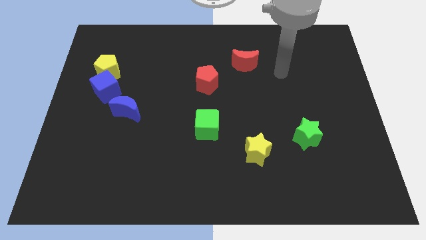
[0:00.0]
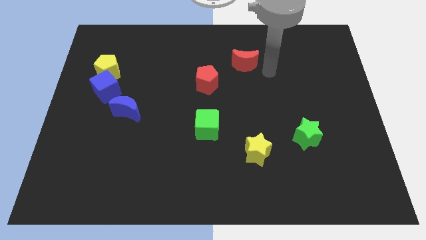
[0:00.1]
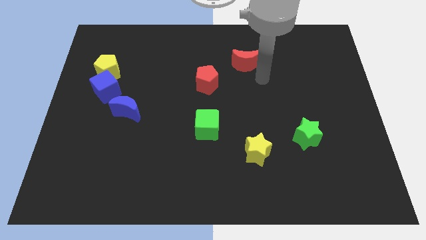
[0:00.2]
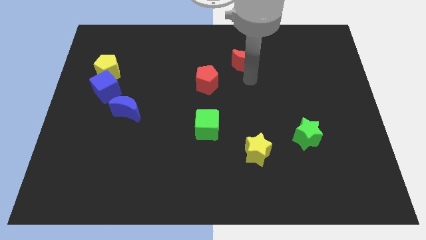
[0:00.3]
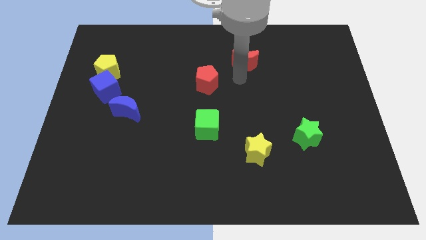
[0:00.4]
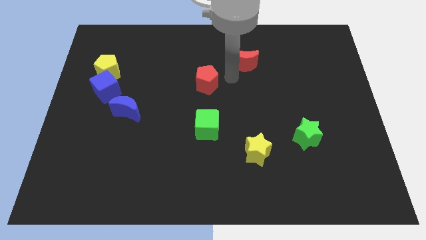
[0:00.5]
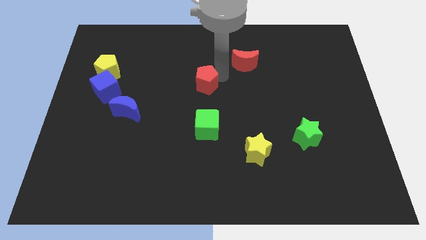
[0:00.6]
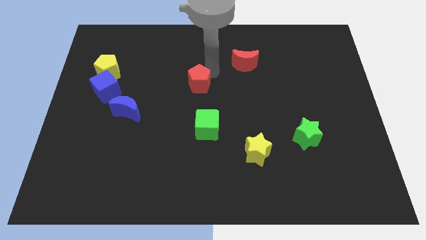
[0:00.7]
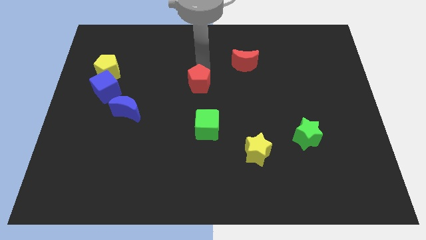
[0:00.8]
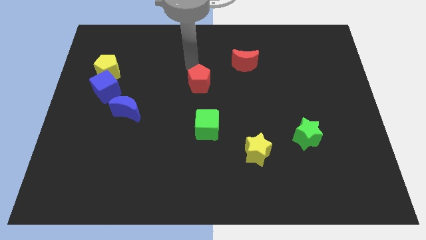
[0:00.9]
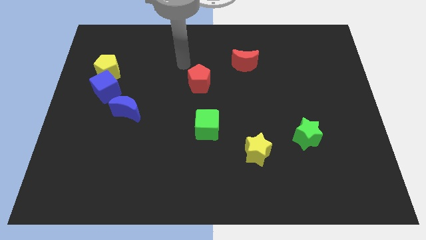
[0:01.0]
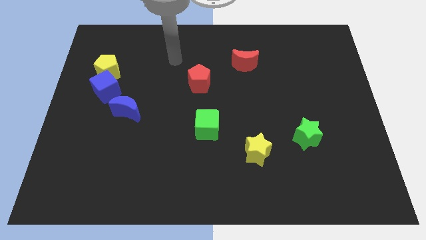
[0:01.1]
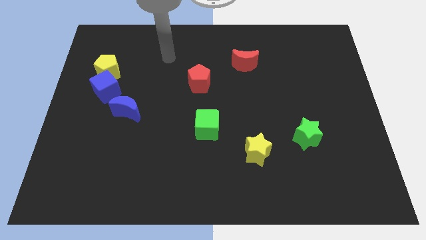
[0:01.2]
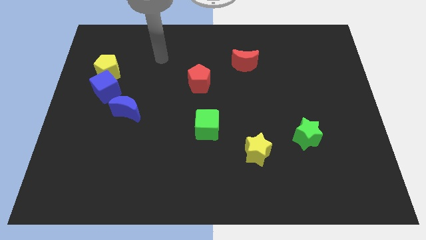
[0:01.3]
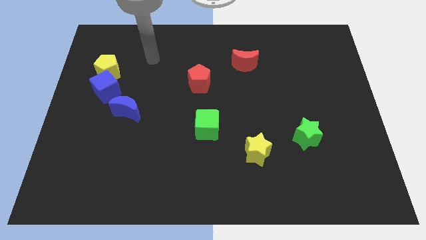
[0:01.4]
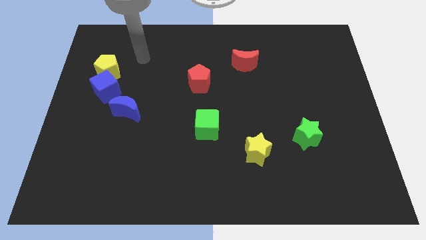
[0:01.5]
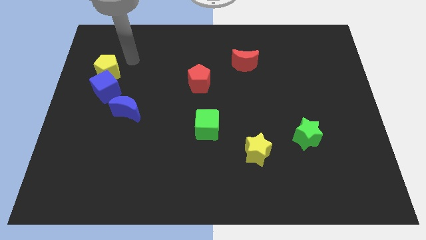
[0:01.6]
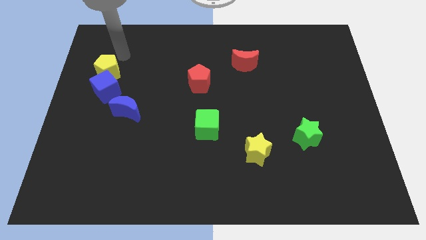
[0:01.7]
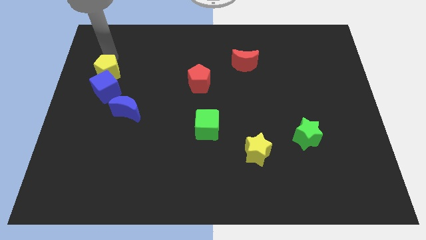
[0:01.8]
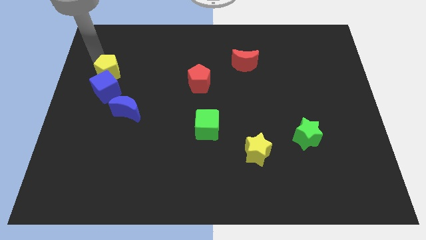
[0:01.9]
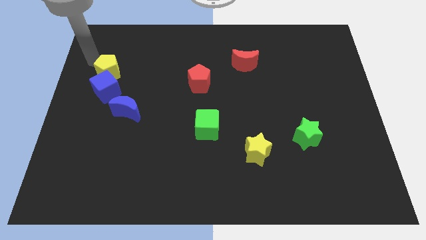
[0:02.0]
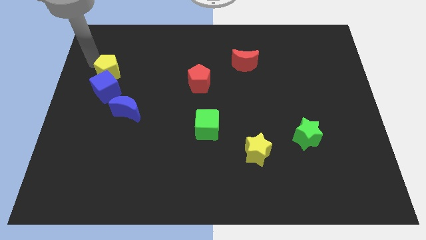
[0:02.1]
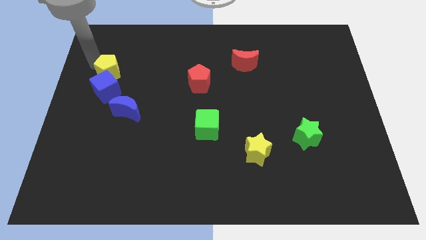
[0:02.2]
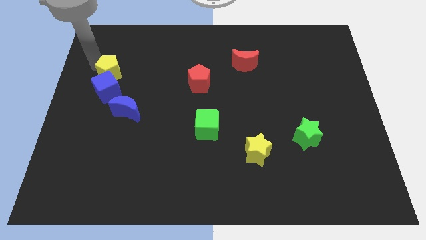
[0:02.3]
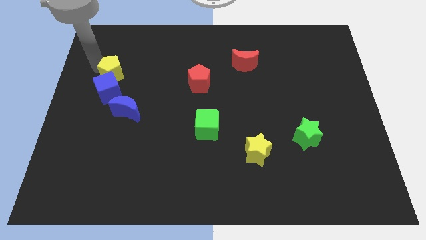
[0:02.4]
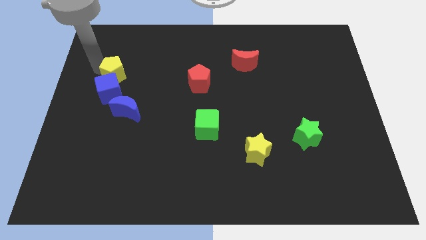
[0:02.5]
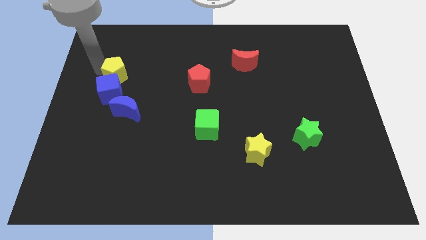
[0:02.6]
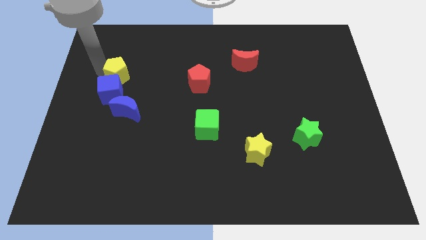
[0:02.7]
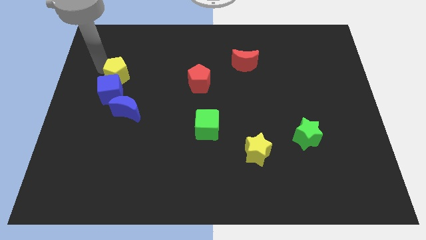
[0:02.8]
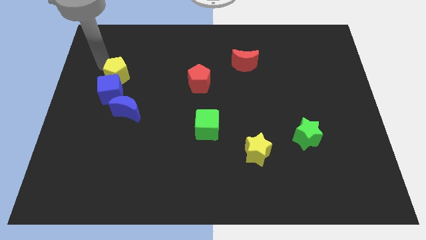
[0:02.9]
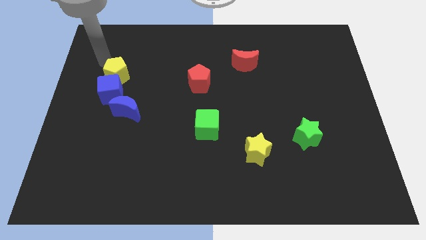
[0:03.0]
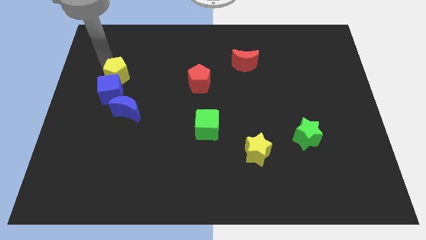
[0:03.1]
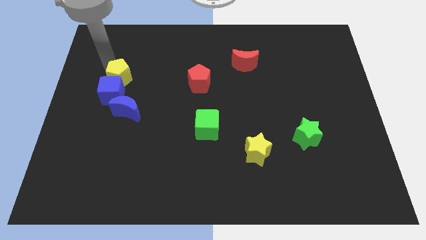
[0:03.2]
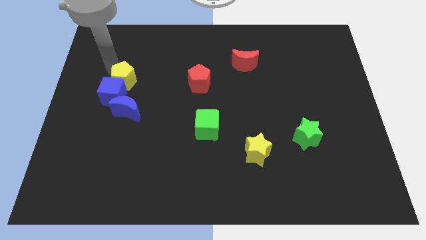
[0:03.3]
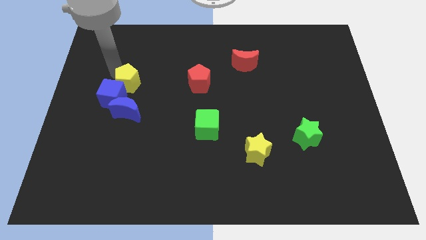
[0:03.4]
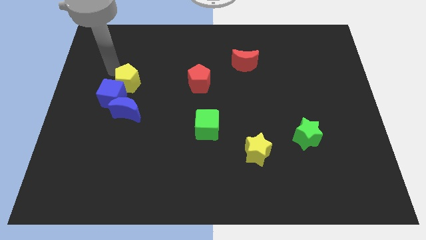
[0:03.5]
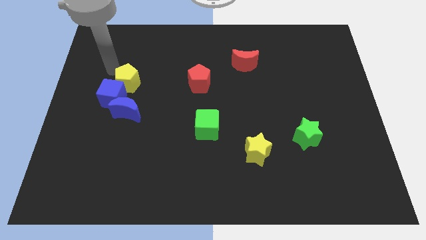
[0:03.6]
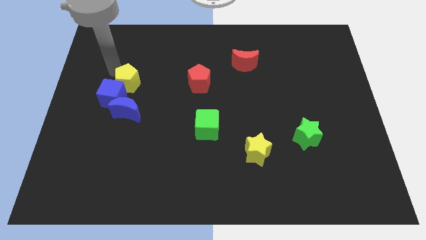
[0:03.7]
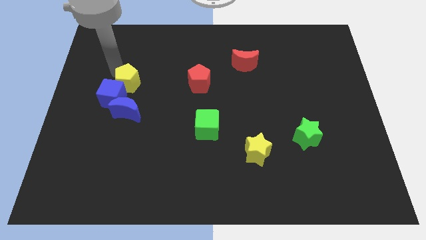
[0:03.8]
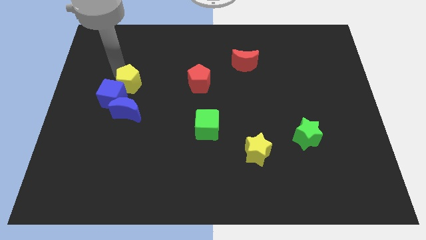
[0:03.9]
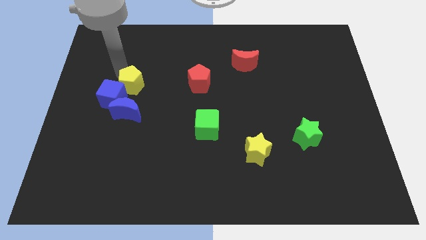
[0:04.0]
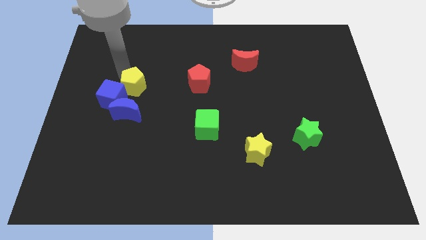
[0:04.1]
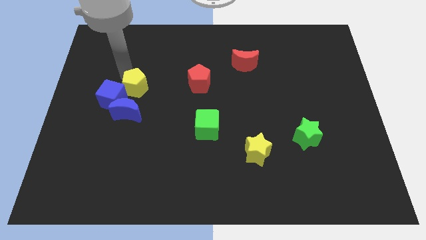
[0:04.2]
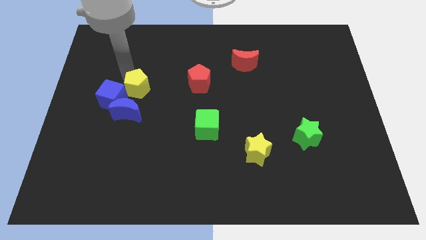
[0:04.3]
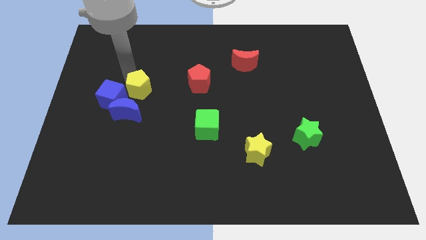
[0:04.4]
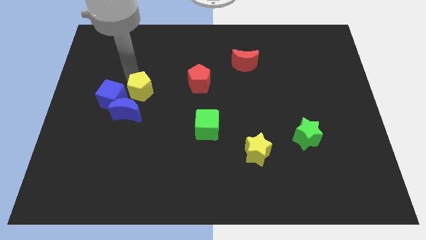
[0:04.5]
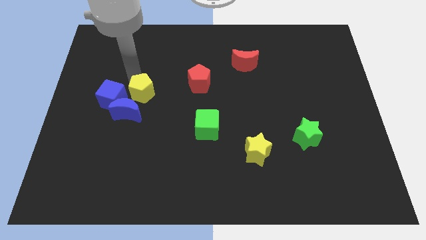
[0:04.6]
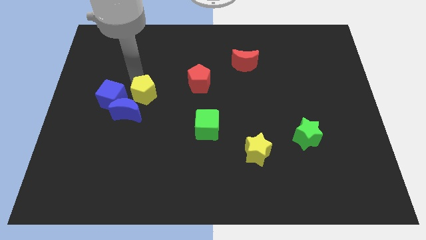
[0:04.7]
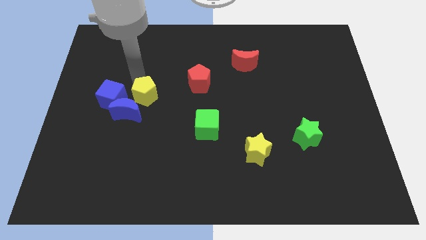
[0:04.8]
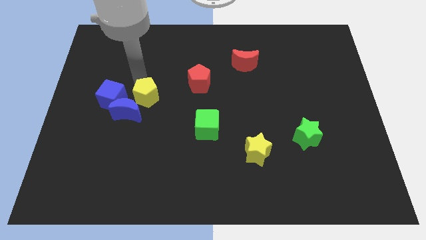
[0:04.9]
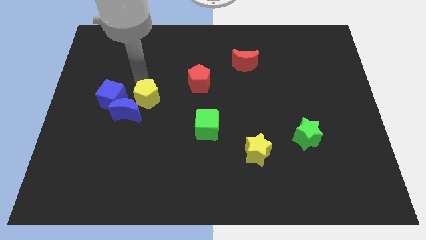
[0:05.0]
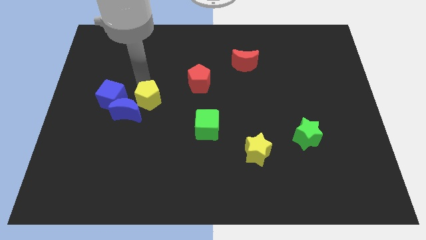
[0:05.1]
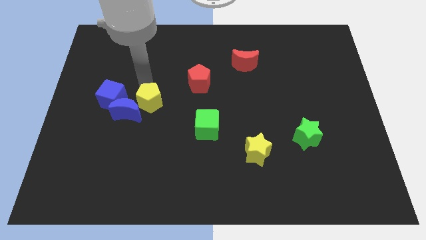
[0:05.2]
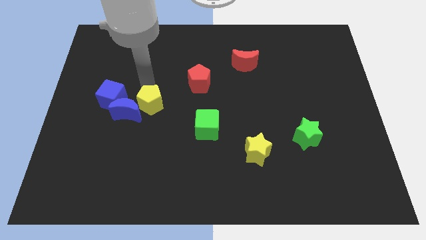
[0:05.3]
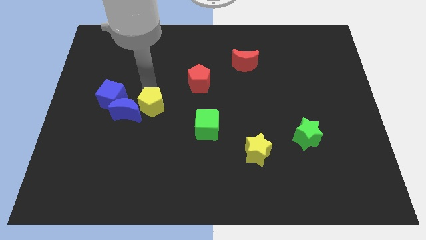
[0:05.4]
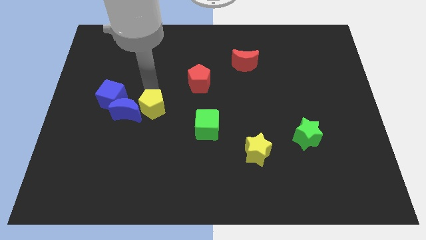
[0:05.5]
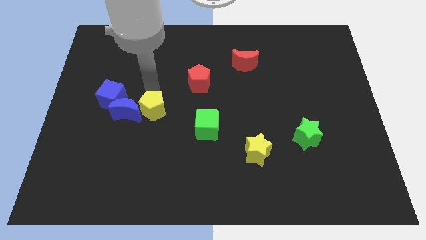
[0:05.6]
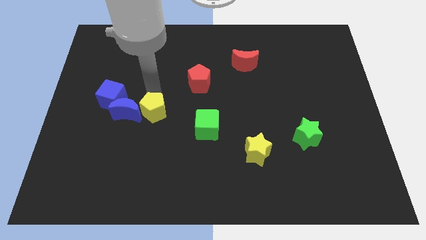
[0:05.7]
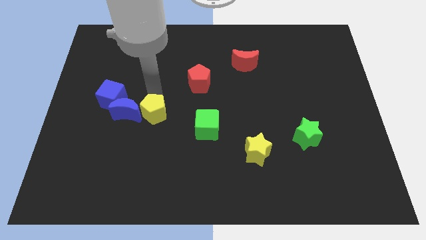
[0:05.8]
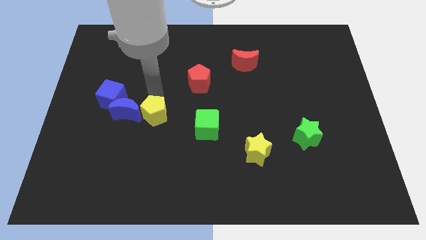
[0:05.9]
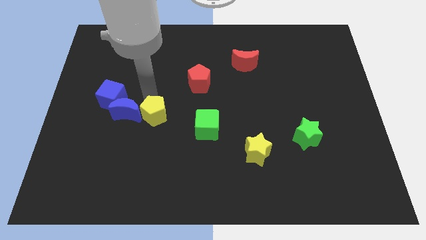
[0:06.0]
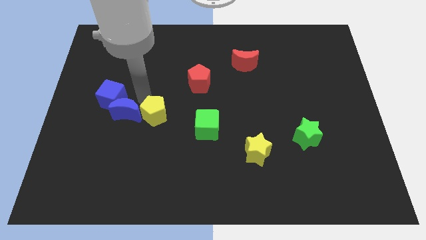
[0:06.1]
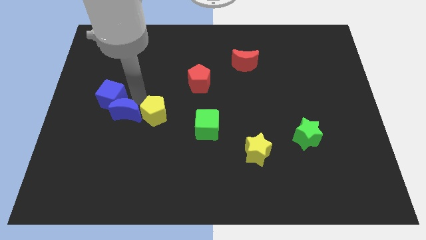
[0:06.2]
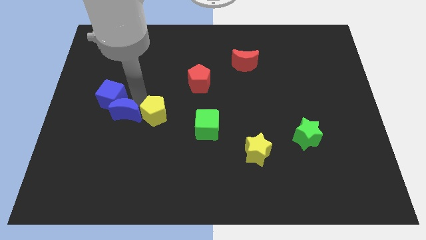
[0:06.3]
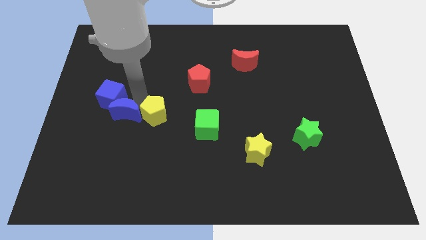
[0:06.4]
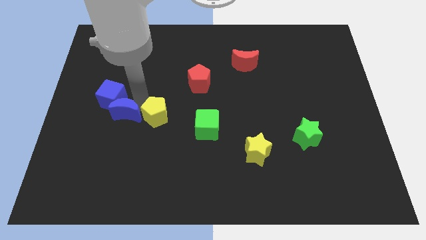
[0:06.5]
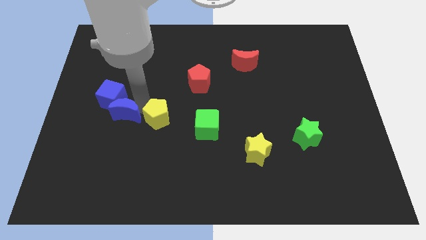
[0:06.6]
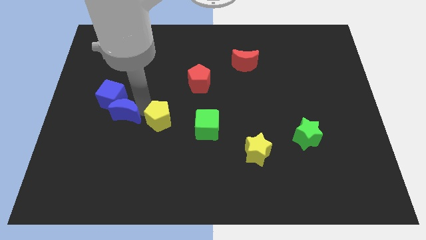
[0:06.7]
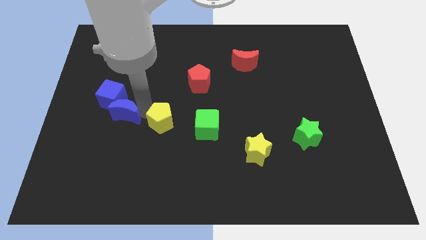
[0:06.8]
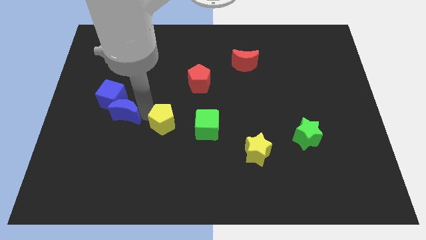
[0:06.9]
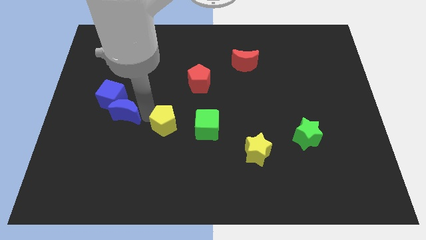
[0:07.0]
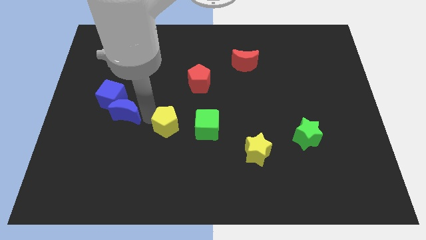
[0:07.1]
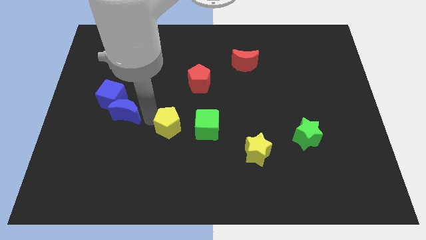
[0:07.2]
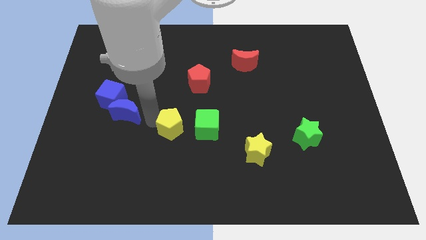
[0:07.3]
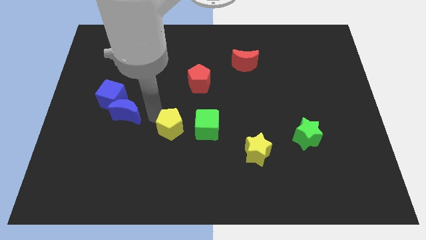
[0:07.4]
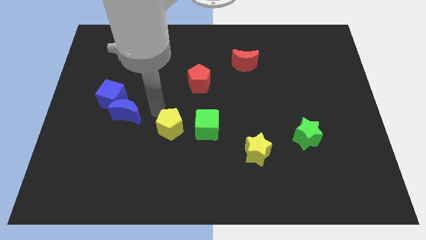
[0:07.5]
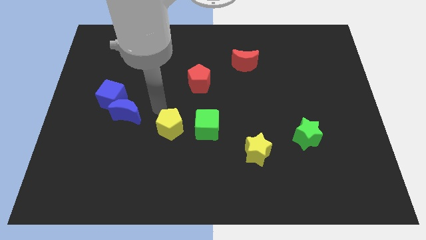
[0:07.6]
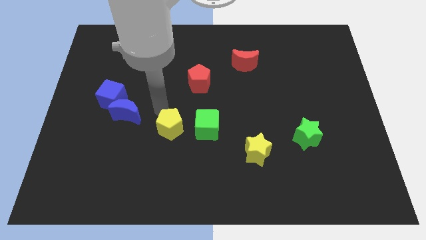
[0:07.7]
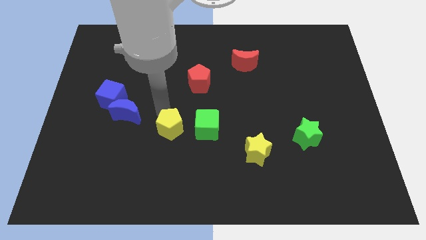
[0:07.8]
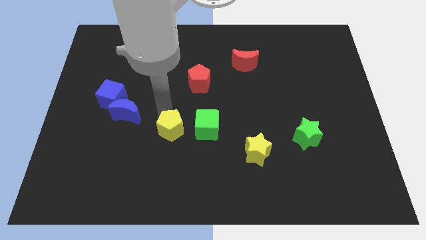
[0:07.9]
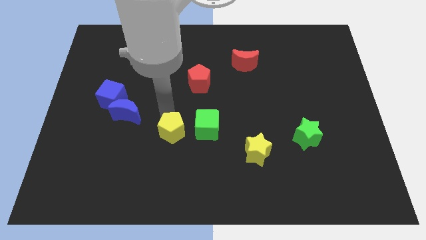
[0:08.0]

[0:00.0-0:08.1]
put the yellow pentagon diagonally down and to the left of the green cube
